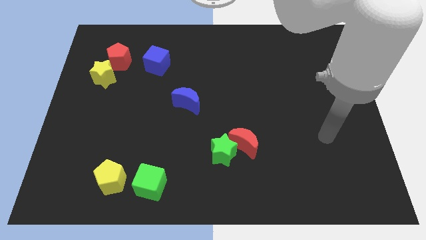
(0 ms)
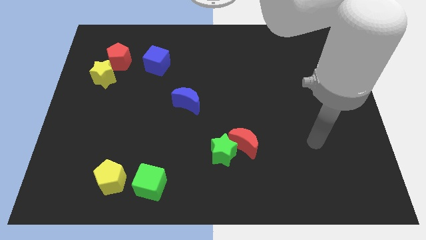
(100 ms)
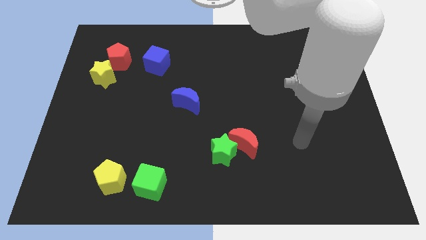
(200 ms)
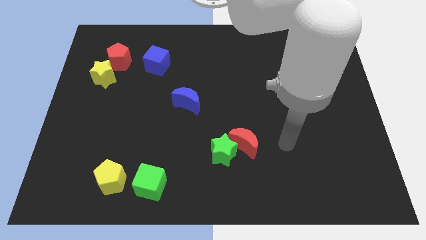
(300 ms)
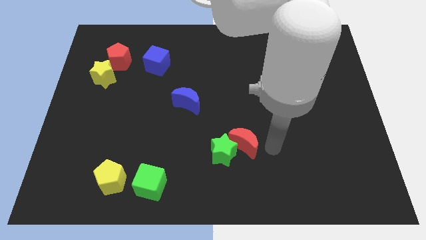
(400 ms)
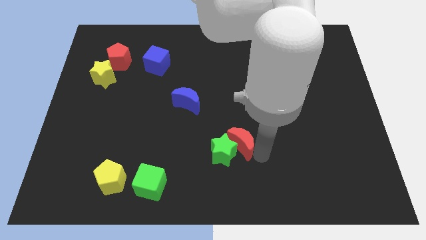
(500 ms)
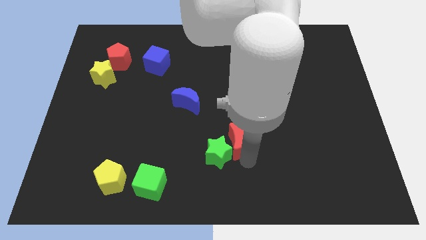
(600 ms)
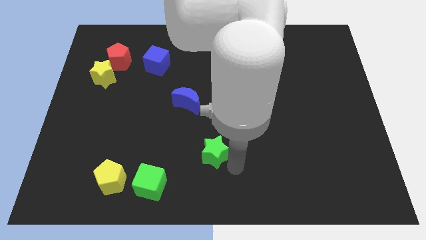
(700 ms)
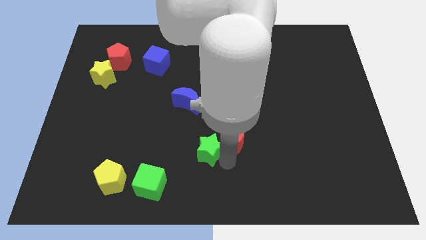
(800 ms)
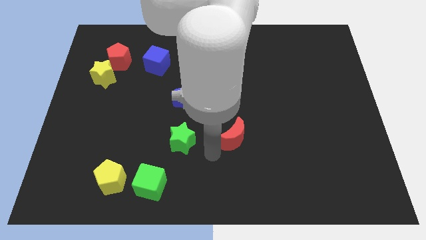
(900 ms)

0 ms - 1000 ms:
move the red moon away from the green star

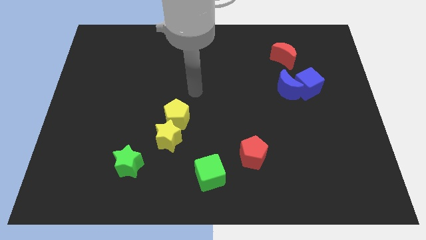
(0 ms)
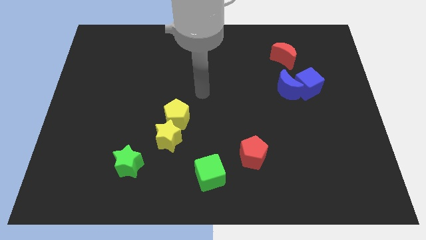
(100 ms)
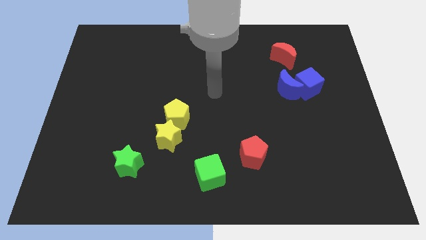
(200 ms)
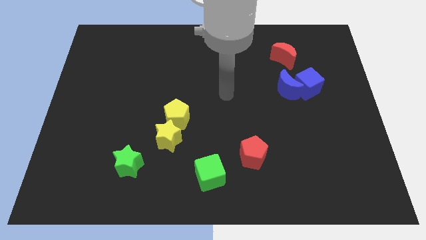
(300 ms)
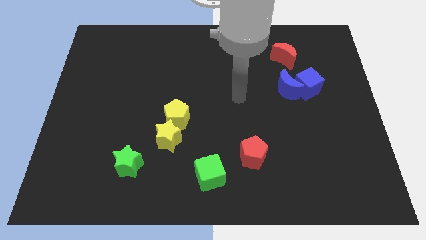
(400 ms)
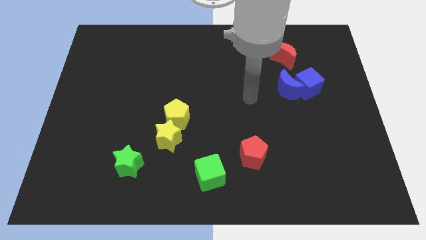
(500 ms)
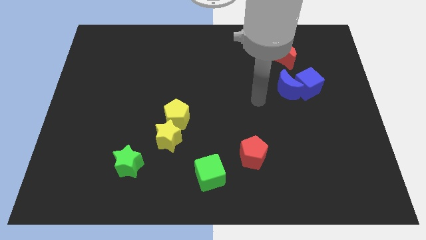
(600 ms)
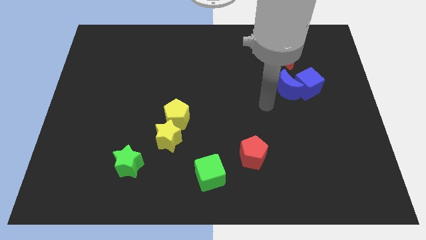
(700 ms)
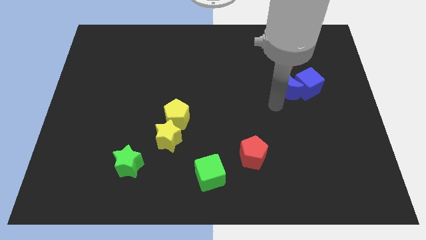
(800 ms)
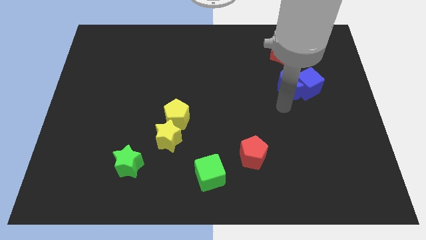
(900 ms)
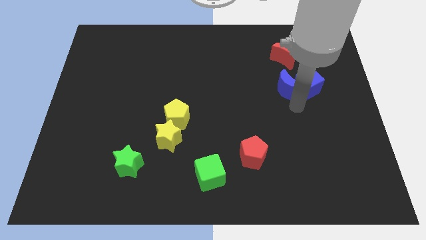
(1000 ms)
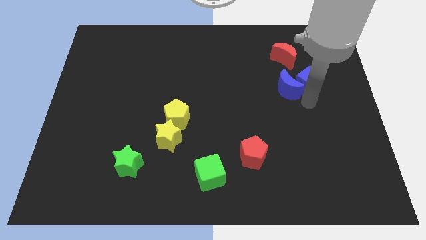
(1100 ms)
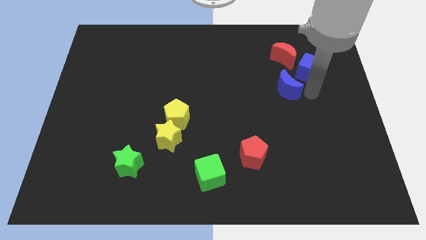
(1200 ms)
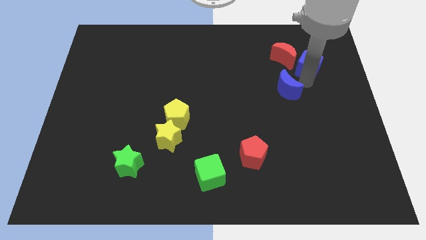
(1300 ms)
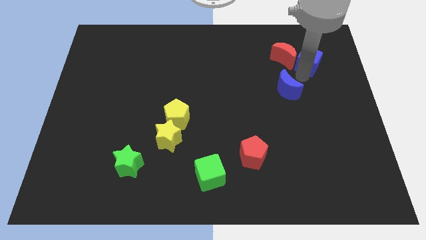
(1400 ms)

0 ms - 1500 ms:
separate the blue moon from the blue cube

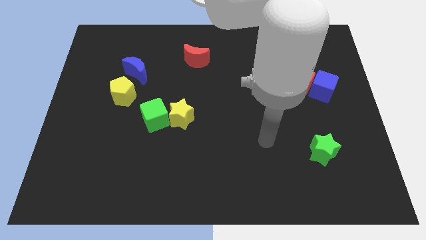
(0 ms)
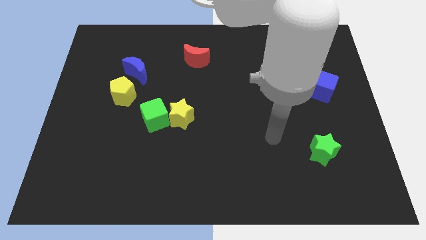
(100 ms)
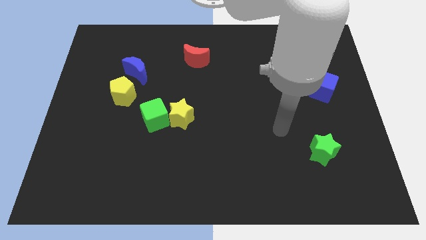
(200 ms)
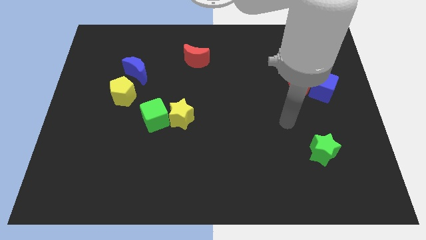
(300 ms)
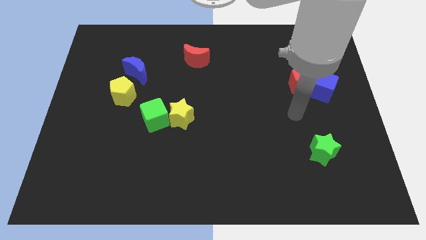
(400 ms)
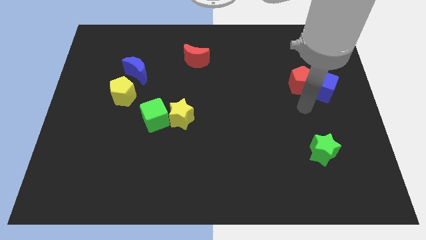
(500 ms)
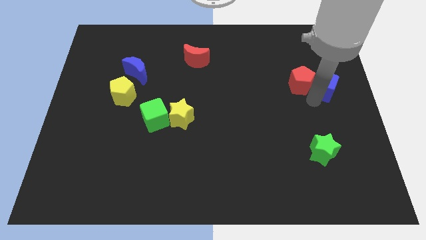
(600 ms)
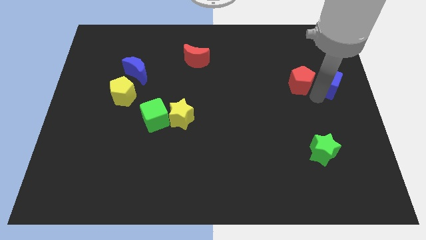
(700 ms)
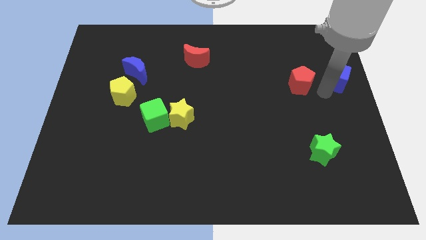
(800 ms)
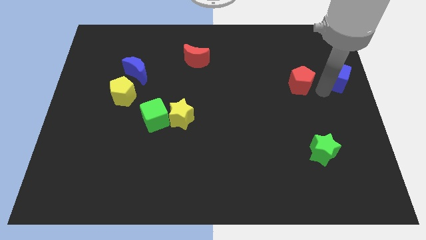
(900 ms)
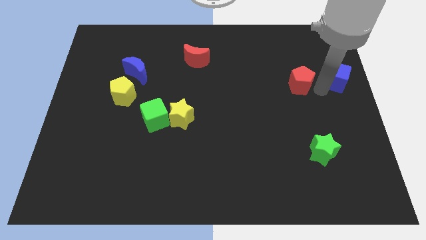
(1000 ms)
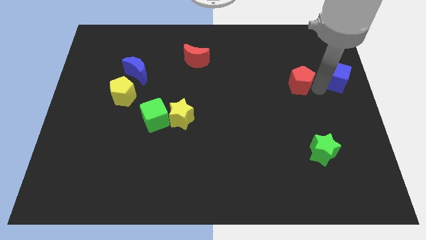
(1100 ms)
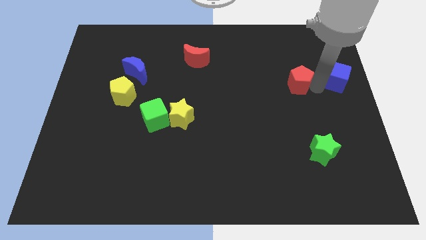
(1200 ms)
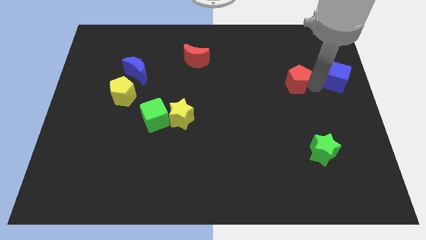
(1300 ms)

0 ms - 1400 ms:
separate the red pentagon from the blue cube

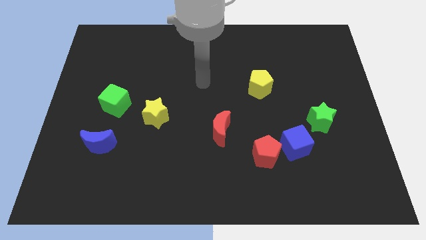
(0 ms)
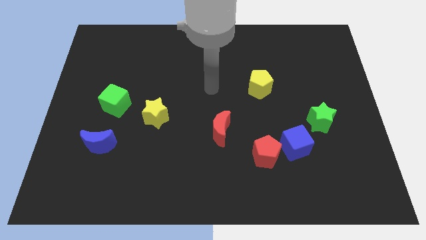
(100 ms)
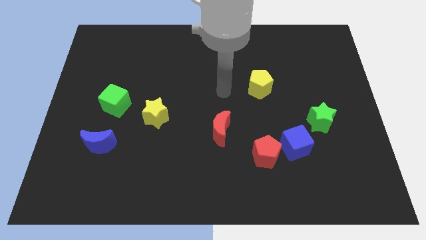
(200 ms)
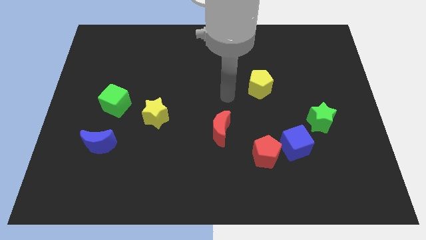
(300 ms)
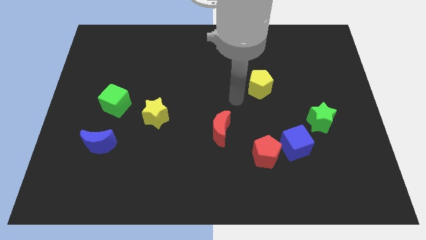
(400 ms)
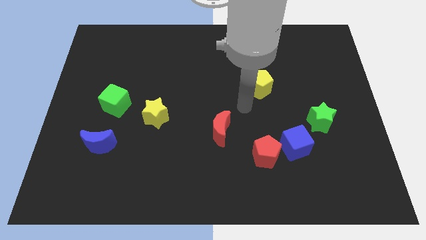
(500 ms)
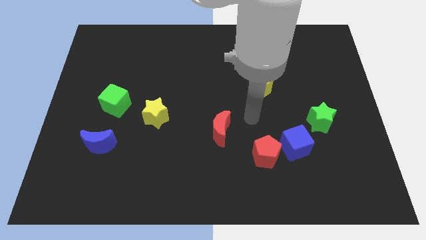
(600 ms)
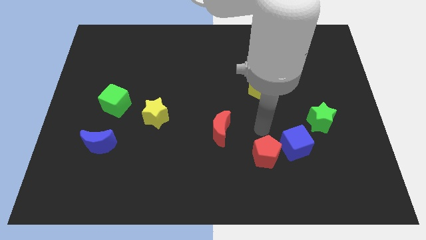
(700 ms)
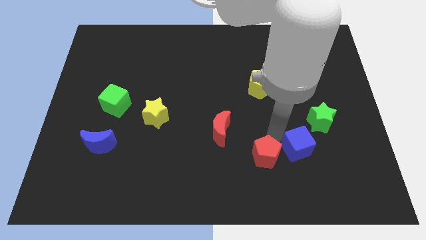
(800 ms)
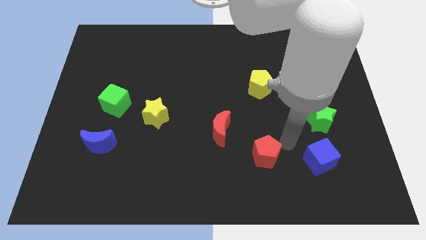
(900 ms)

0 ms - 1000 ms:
move the red pentagon away from the blue cube

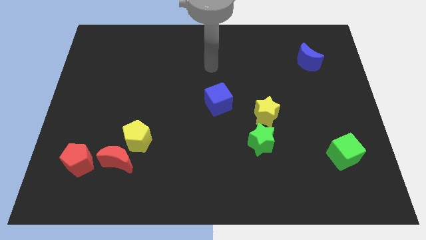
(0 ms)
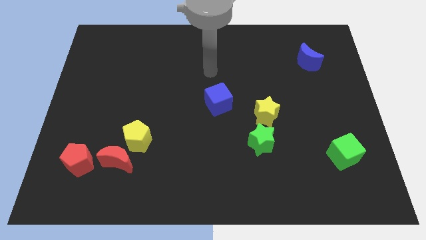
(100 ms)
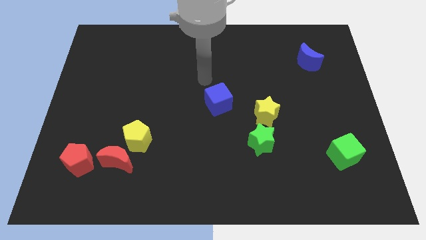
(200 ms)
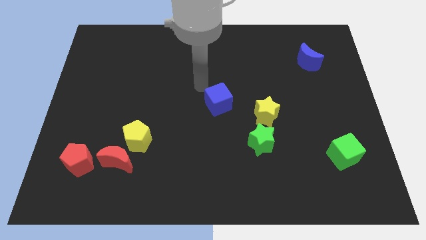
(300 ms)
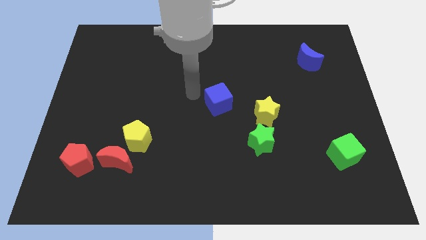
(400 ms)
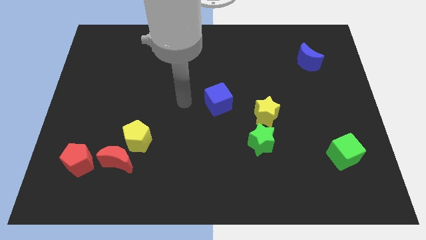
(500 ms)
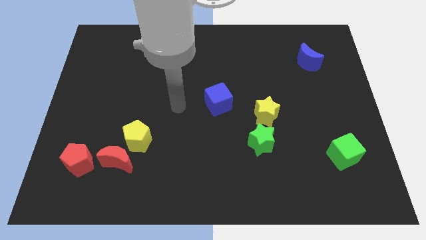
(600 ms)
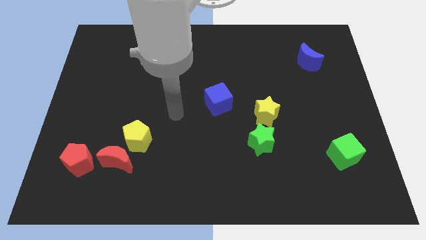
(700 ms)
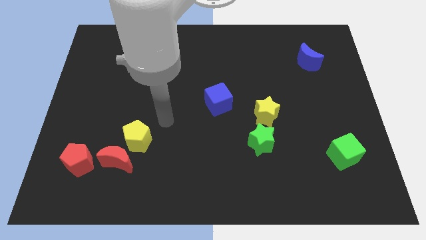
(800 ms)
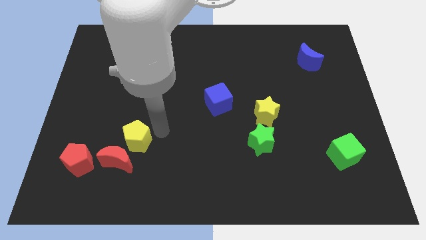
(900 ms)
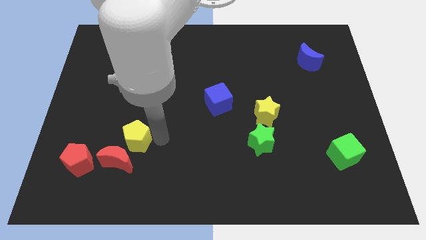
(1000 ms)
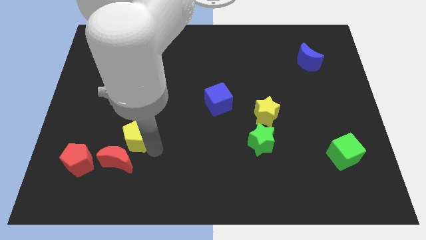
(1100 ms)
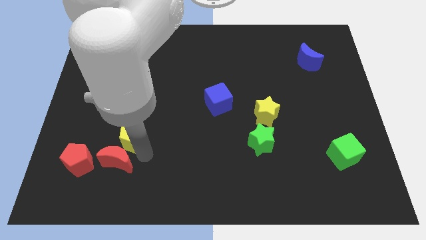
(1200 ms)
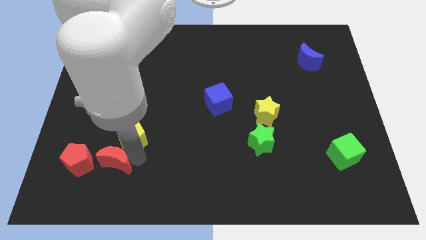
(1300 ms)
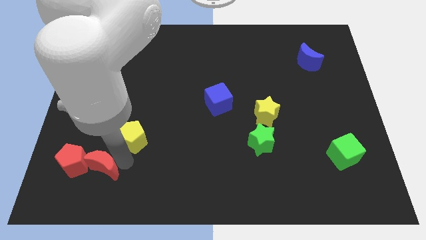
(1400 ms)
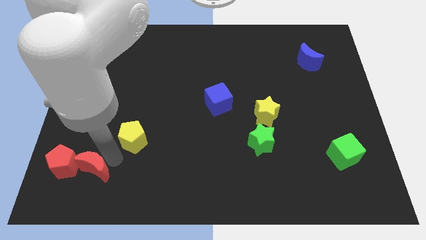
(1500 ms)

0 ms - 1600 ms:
pull the yellow pentagon apart from the red moon

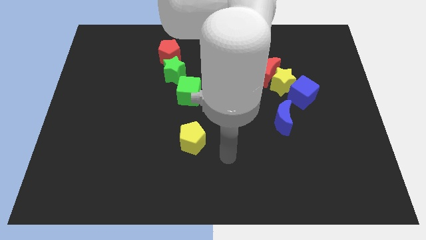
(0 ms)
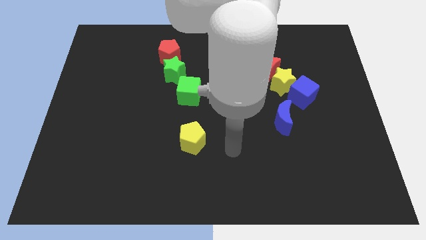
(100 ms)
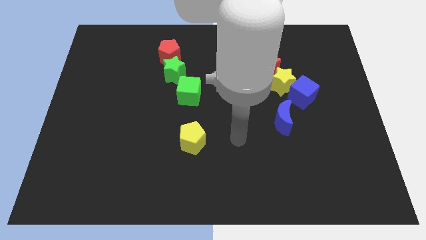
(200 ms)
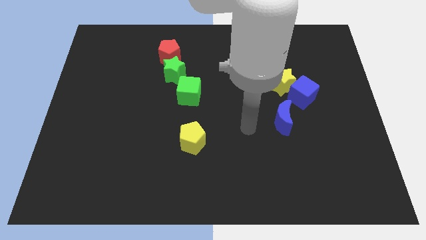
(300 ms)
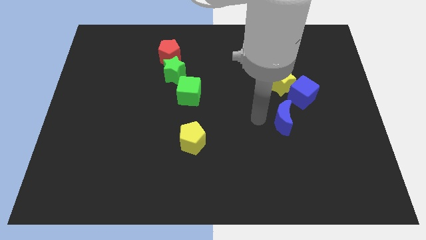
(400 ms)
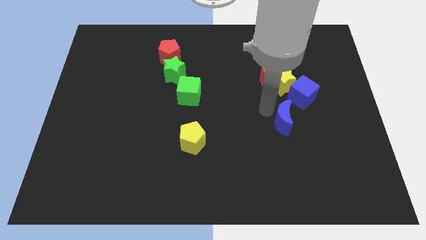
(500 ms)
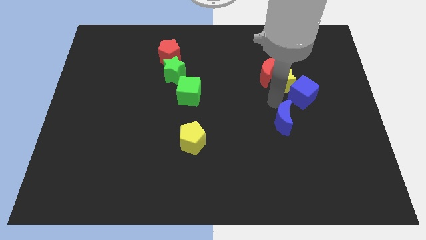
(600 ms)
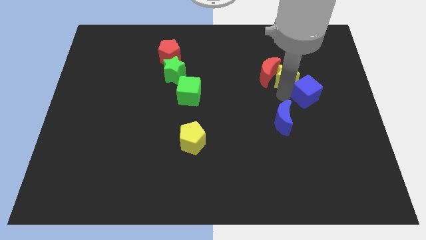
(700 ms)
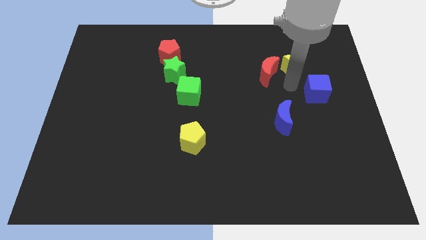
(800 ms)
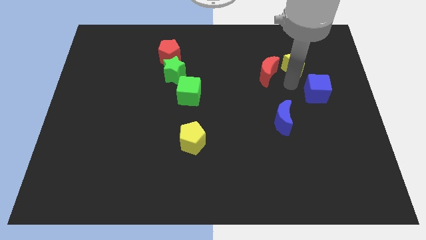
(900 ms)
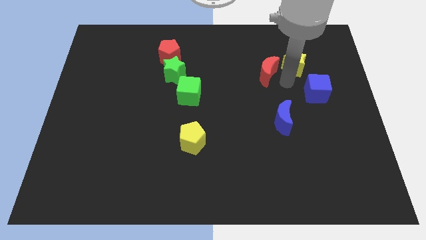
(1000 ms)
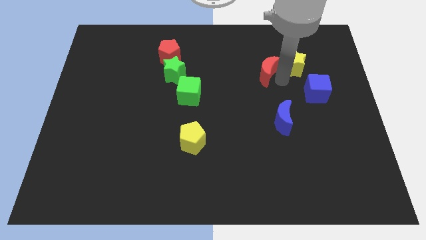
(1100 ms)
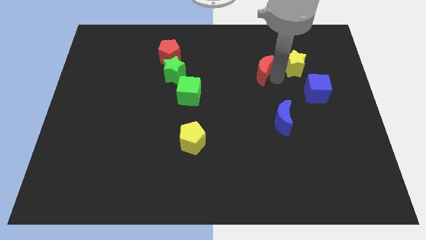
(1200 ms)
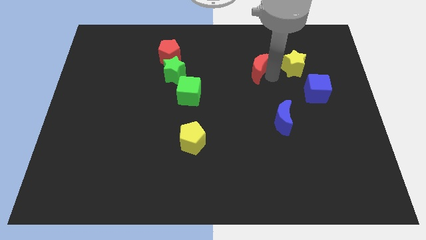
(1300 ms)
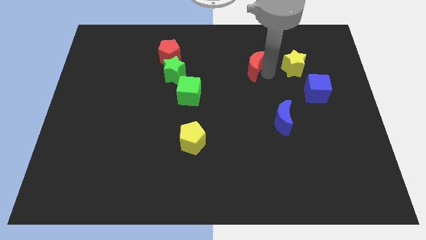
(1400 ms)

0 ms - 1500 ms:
separate the red moon from the yellow star

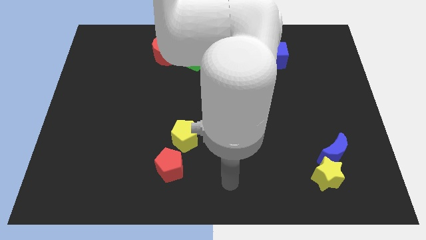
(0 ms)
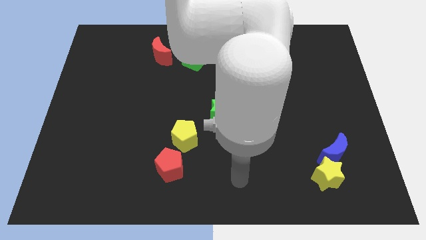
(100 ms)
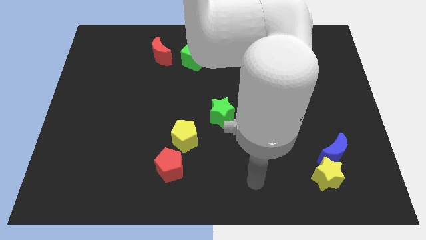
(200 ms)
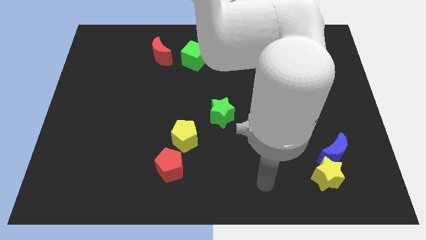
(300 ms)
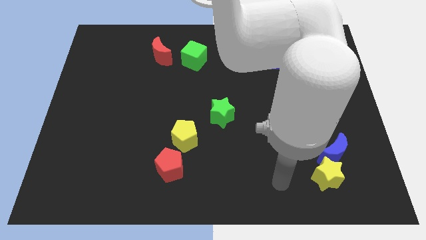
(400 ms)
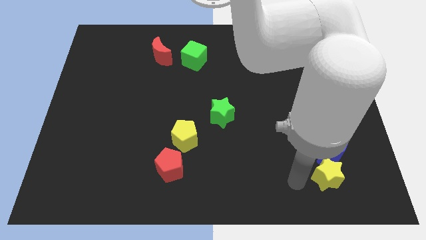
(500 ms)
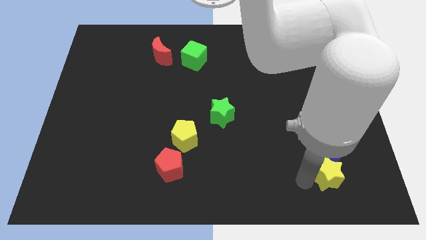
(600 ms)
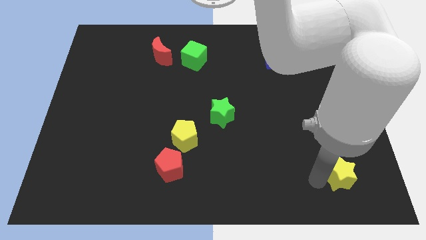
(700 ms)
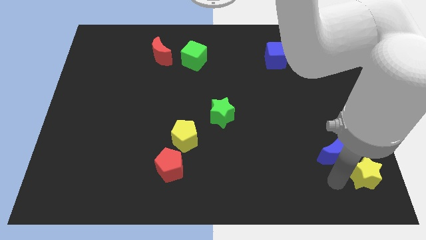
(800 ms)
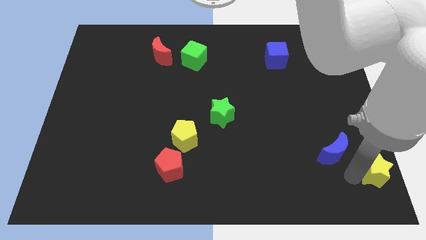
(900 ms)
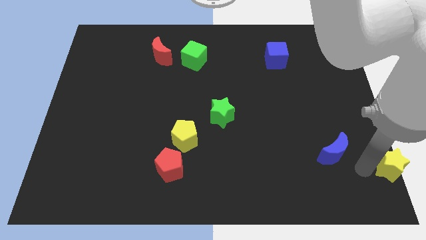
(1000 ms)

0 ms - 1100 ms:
pull the blue moon apart from the yellow star

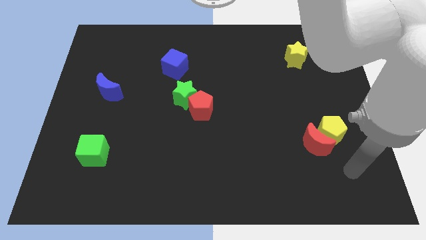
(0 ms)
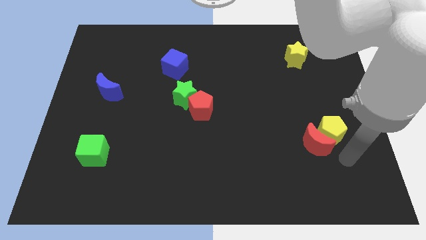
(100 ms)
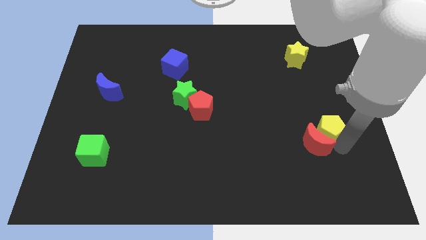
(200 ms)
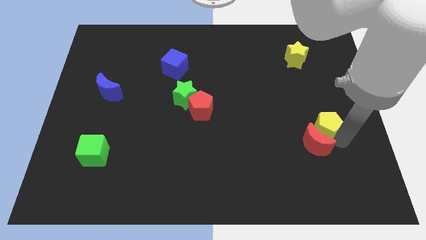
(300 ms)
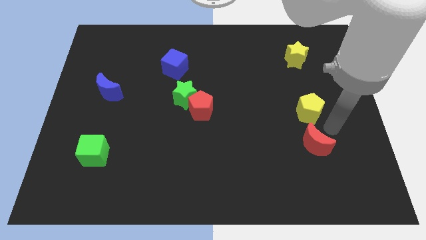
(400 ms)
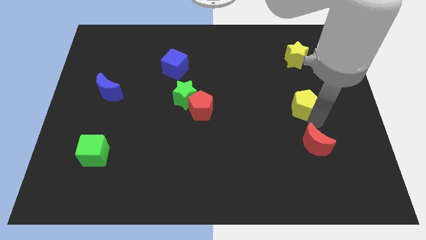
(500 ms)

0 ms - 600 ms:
separate the red moon from the yellow pentagon
